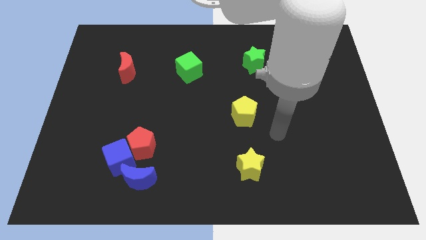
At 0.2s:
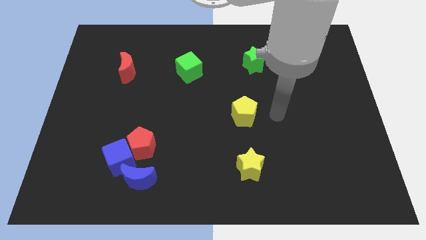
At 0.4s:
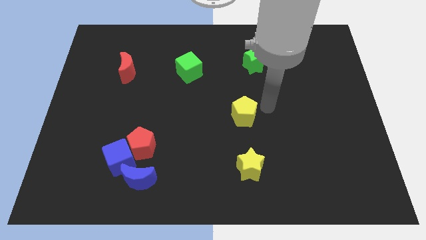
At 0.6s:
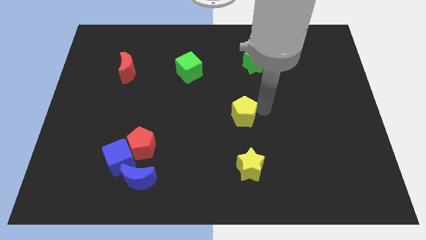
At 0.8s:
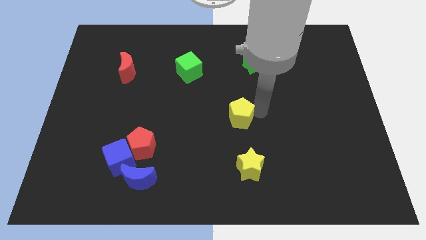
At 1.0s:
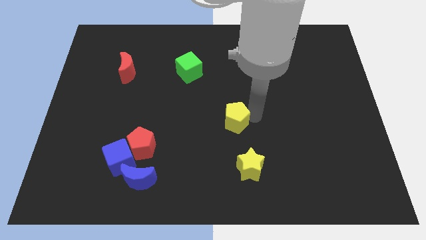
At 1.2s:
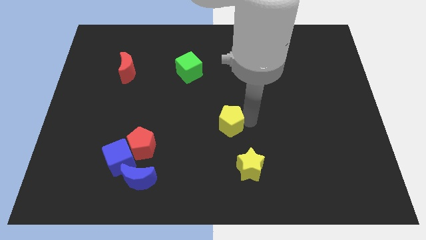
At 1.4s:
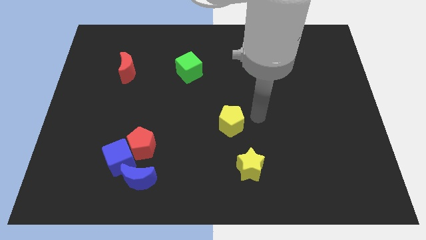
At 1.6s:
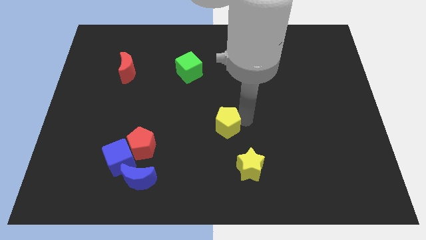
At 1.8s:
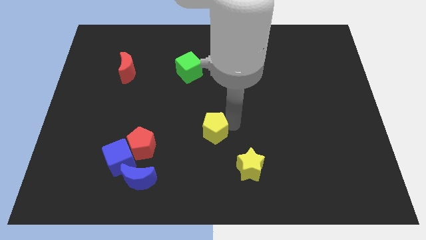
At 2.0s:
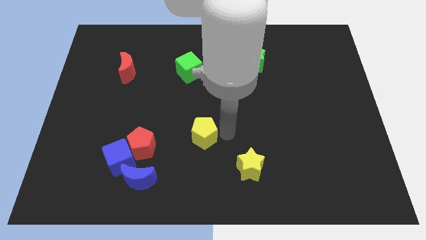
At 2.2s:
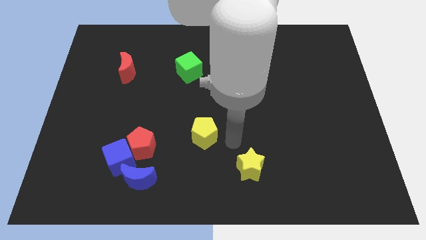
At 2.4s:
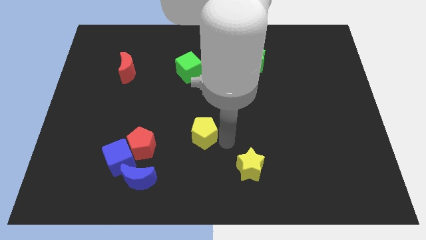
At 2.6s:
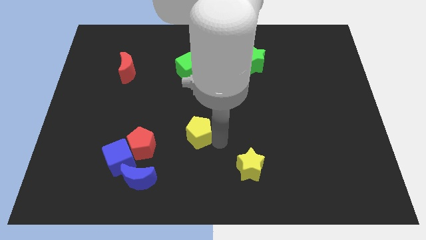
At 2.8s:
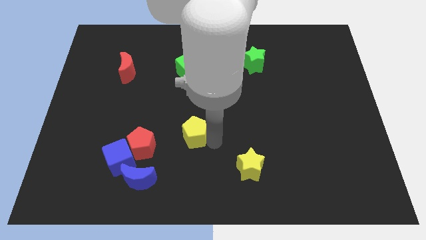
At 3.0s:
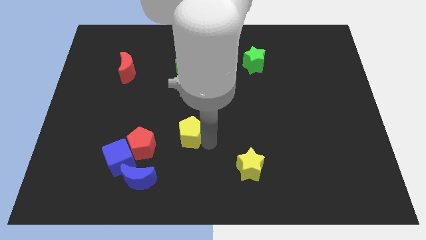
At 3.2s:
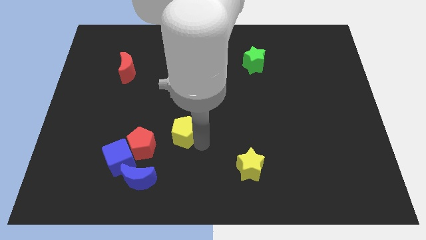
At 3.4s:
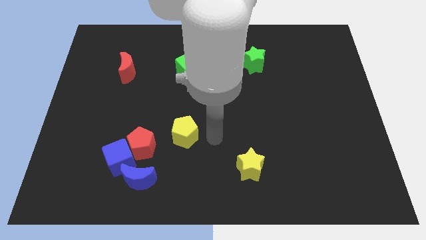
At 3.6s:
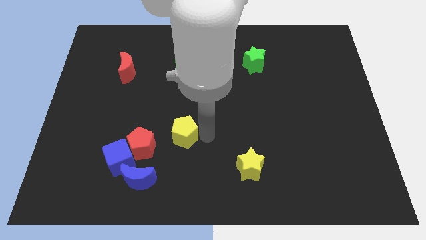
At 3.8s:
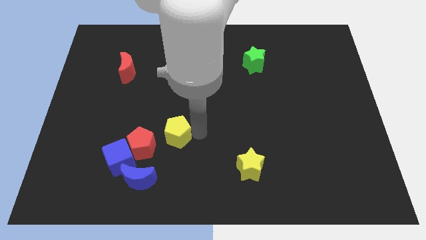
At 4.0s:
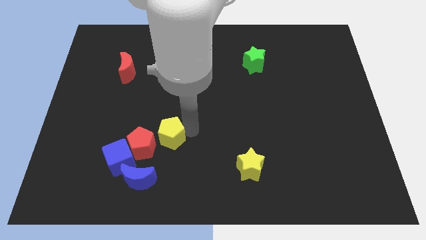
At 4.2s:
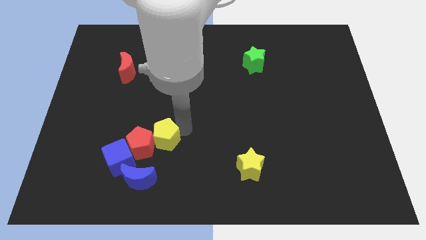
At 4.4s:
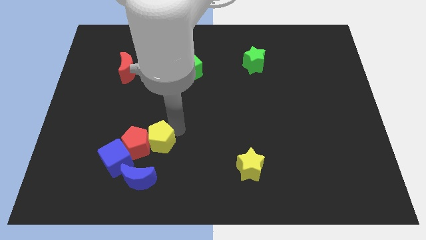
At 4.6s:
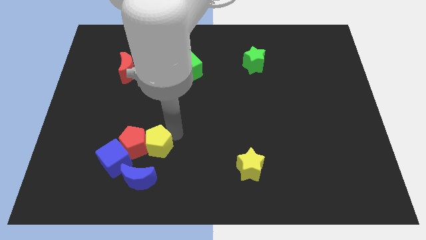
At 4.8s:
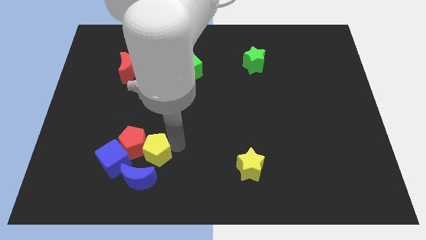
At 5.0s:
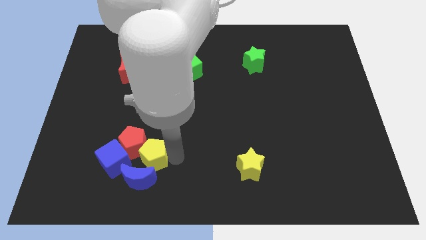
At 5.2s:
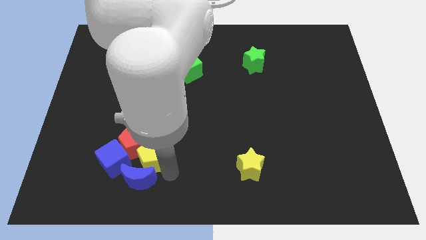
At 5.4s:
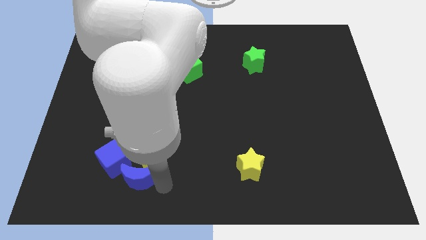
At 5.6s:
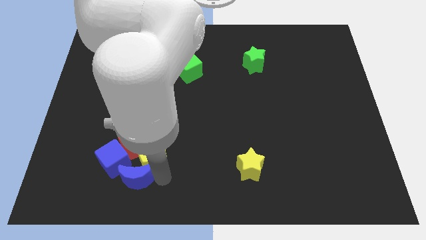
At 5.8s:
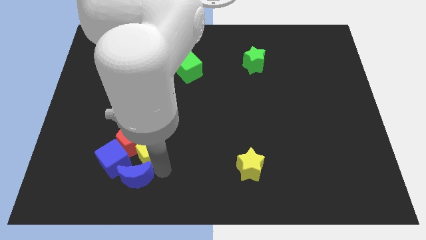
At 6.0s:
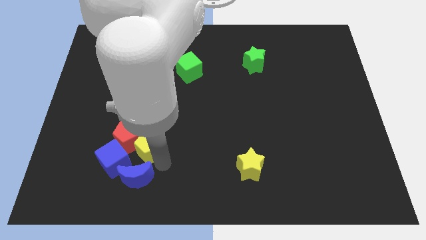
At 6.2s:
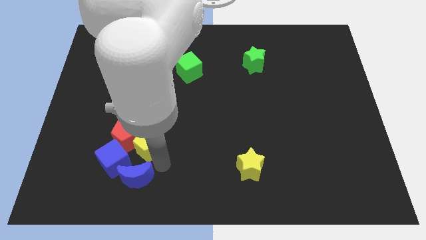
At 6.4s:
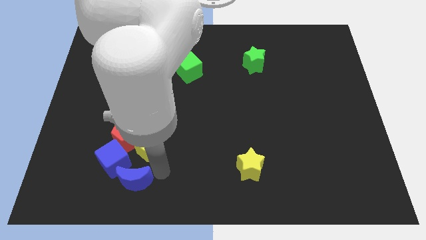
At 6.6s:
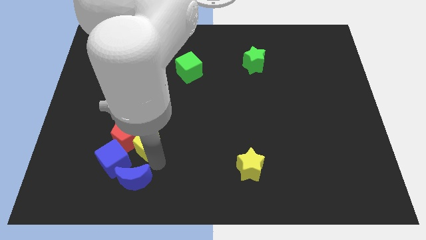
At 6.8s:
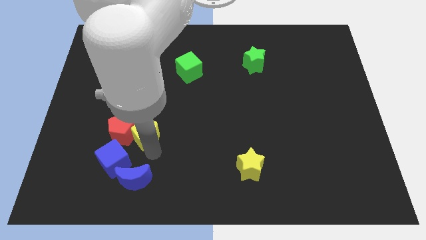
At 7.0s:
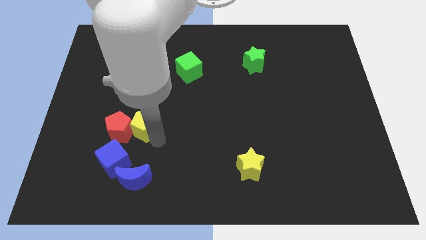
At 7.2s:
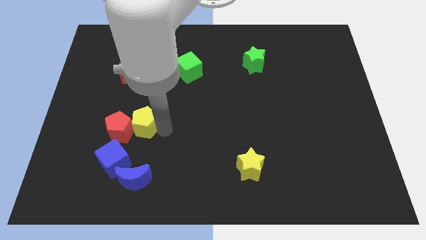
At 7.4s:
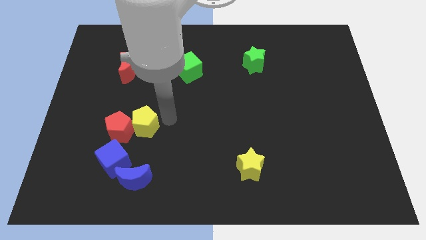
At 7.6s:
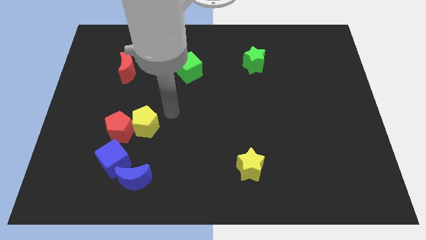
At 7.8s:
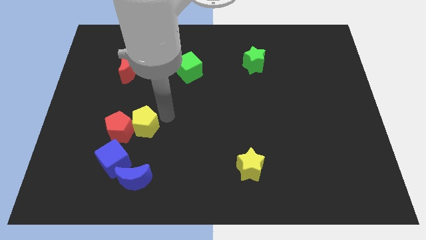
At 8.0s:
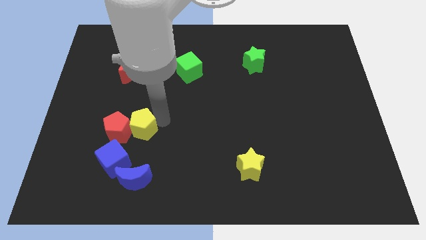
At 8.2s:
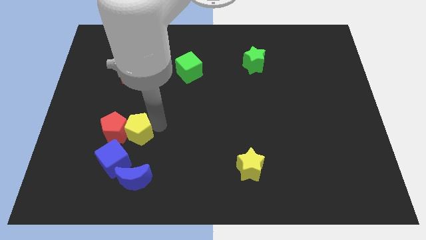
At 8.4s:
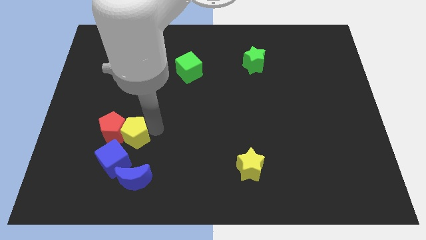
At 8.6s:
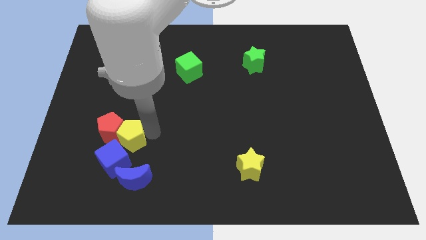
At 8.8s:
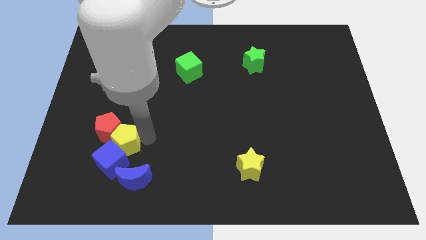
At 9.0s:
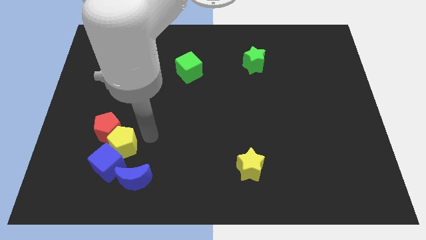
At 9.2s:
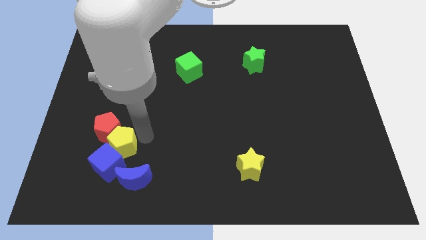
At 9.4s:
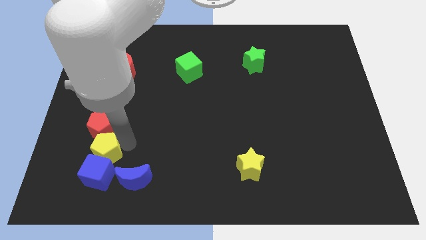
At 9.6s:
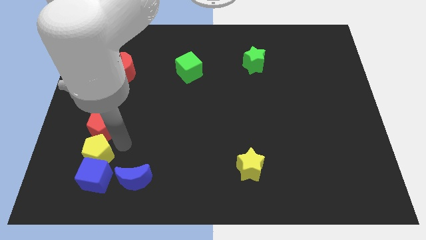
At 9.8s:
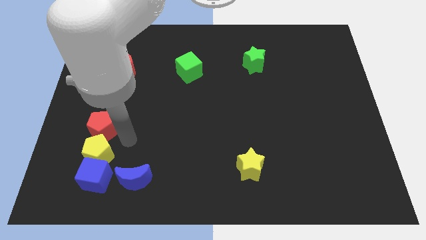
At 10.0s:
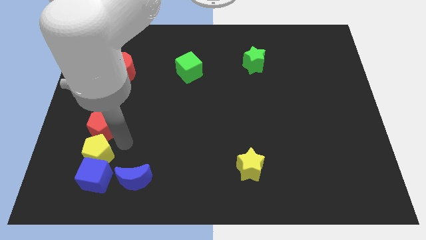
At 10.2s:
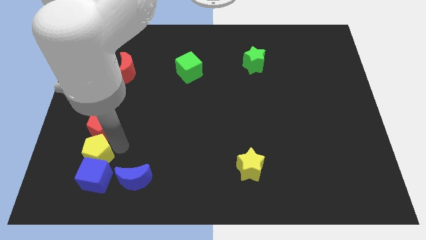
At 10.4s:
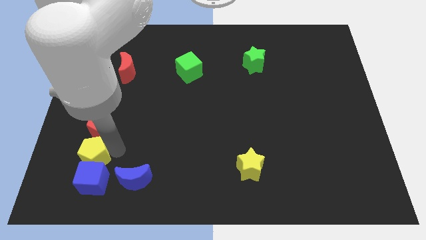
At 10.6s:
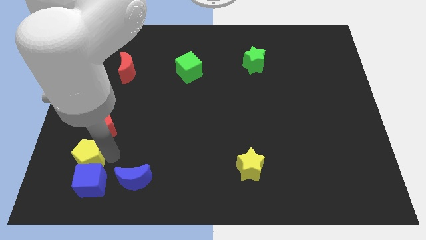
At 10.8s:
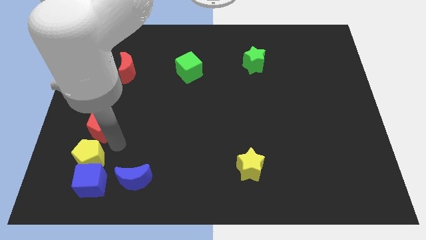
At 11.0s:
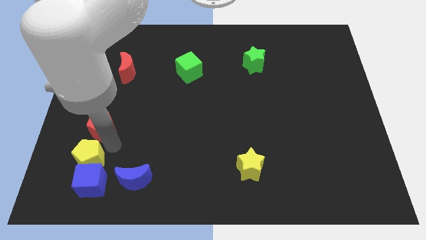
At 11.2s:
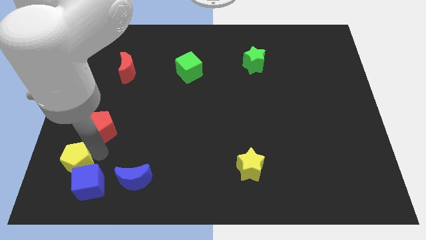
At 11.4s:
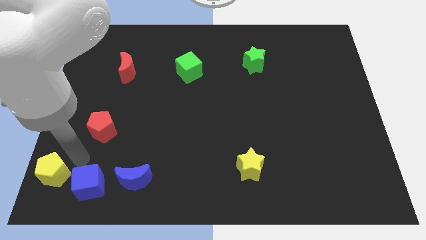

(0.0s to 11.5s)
move the yellow pentagon to the bottom left of the board

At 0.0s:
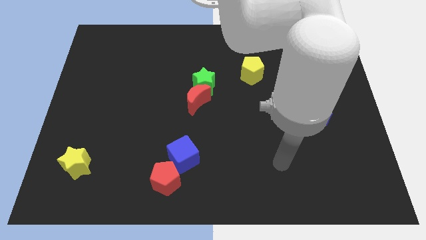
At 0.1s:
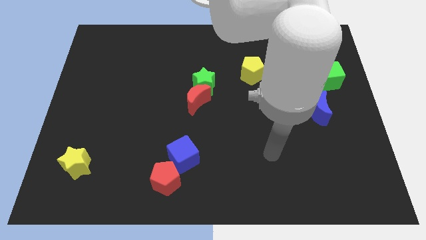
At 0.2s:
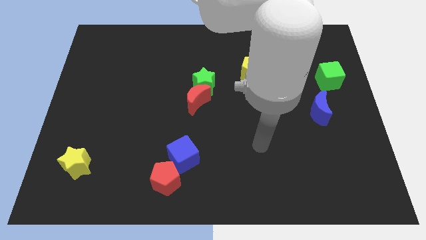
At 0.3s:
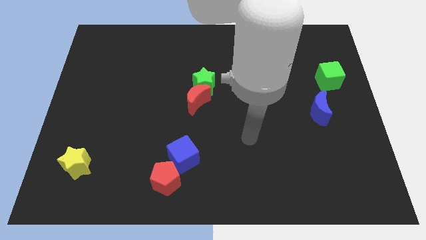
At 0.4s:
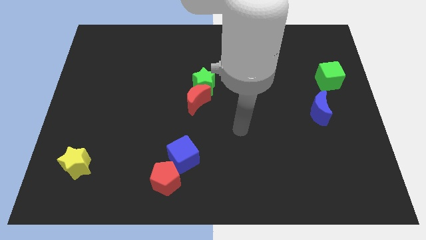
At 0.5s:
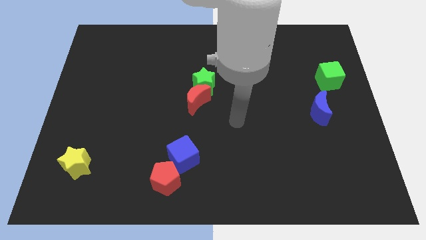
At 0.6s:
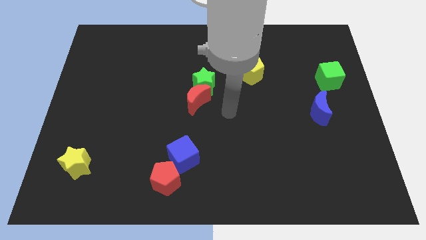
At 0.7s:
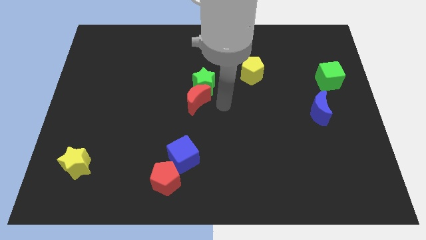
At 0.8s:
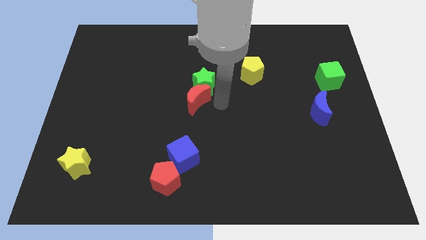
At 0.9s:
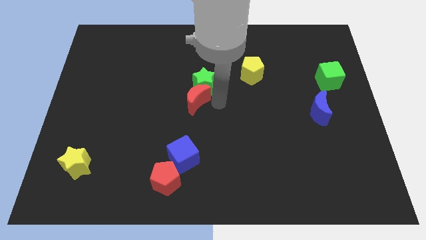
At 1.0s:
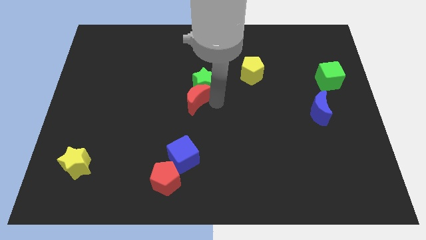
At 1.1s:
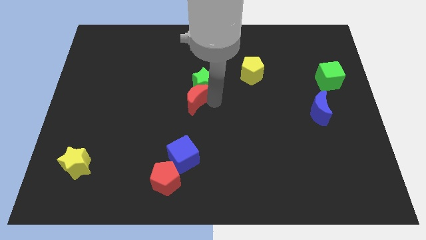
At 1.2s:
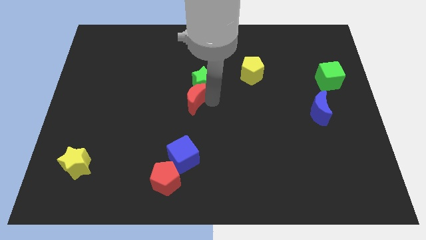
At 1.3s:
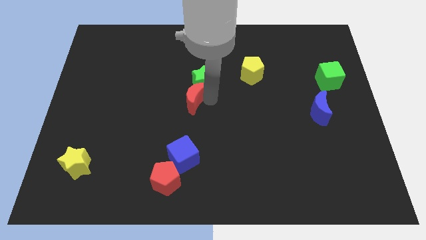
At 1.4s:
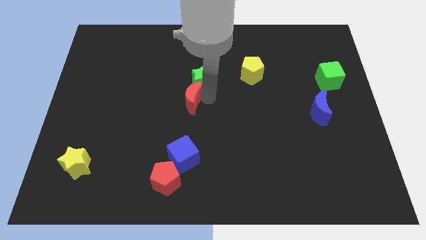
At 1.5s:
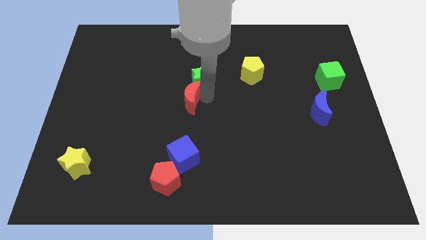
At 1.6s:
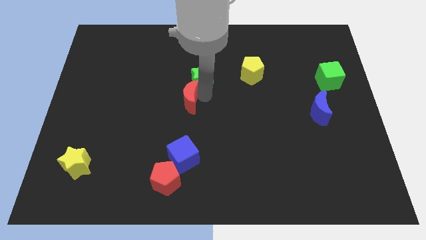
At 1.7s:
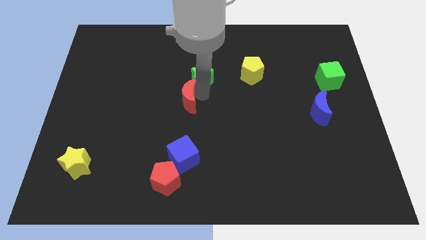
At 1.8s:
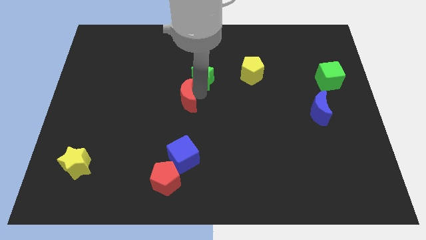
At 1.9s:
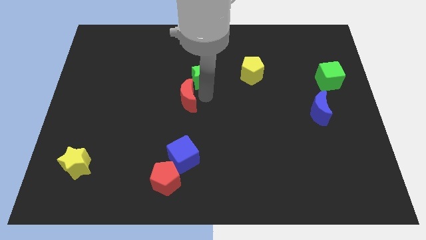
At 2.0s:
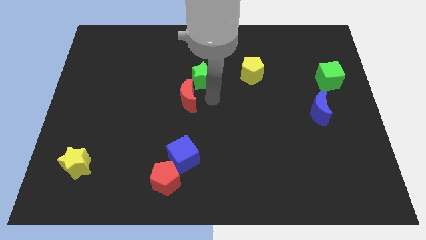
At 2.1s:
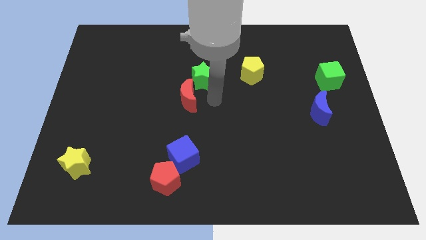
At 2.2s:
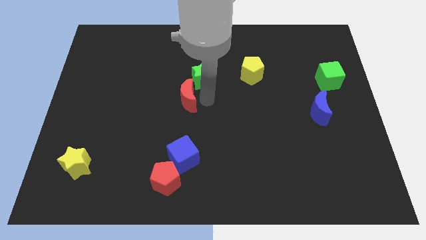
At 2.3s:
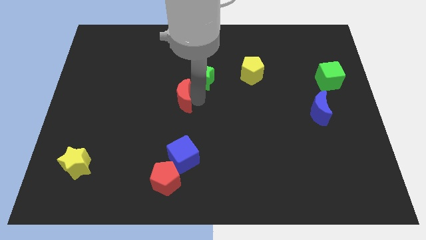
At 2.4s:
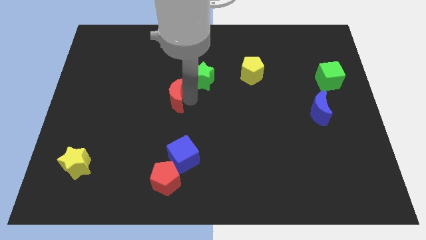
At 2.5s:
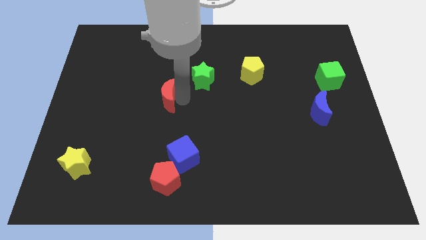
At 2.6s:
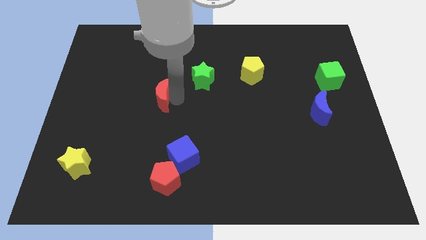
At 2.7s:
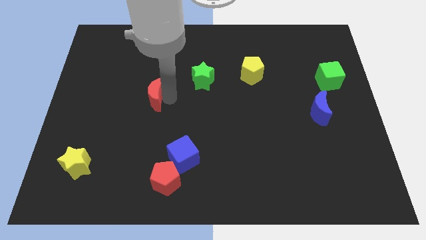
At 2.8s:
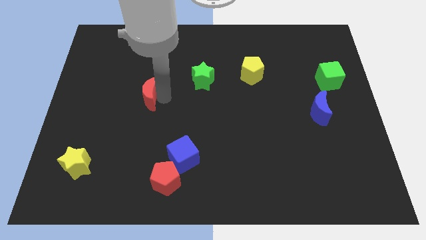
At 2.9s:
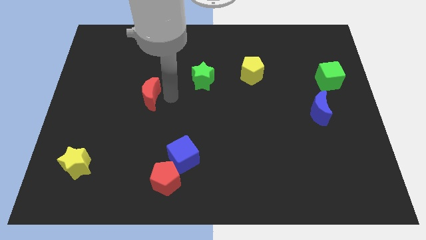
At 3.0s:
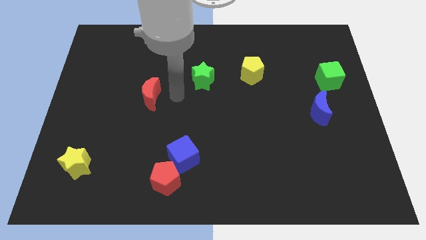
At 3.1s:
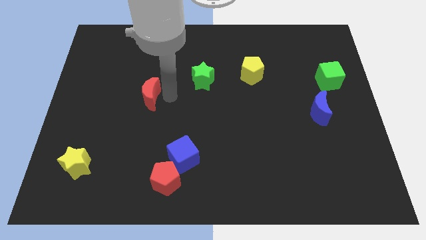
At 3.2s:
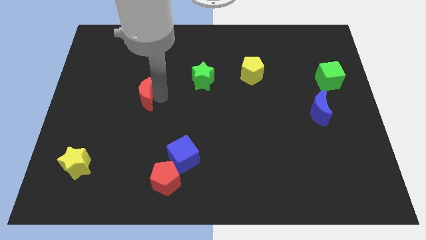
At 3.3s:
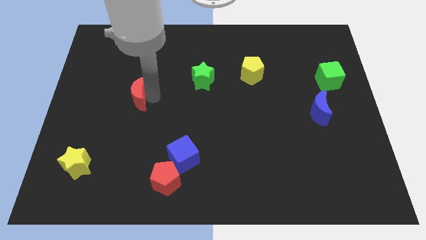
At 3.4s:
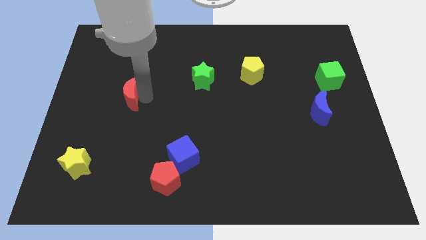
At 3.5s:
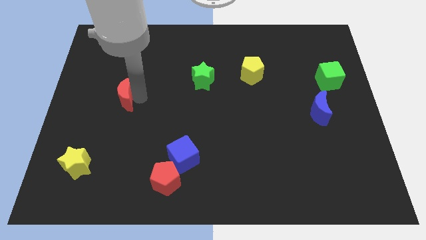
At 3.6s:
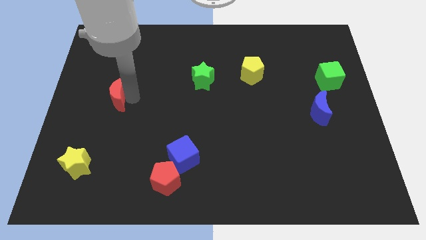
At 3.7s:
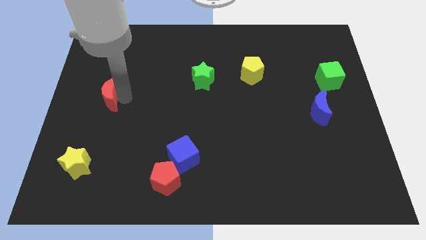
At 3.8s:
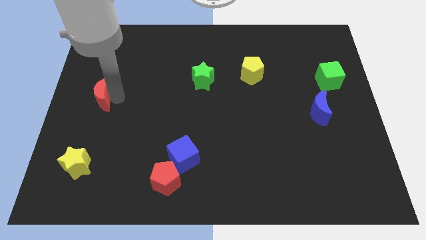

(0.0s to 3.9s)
slide the red moon to the left side
